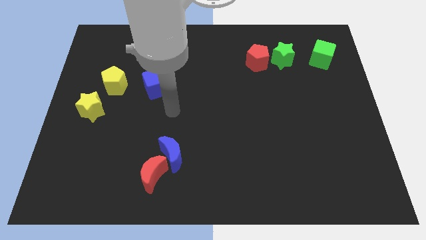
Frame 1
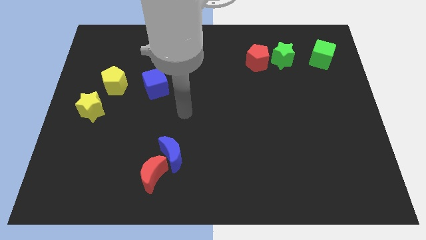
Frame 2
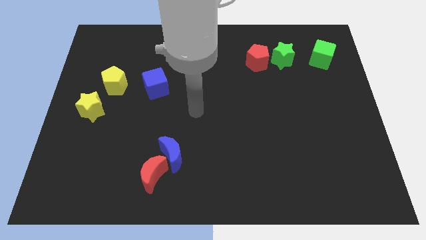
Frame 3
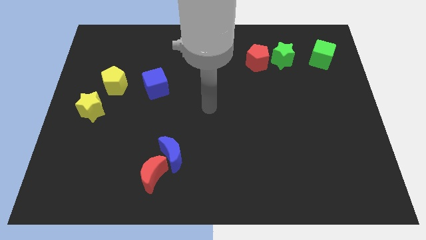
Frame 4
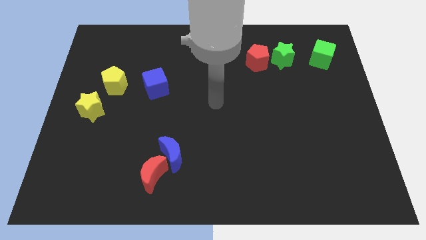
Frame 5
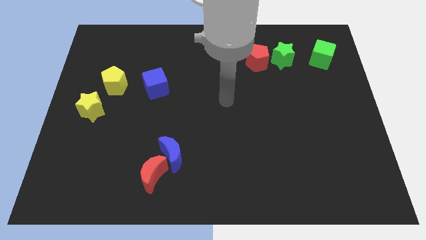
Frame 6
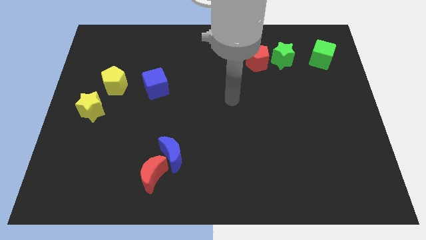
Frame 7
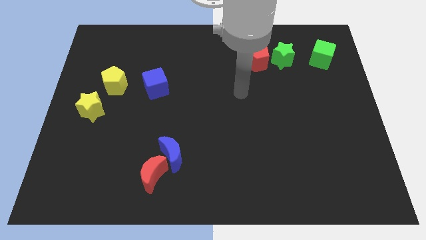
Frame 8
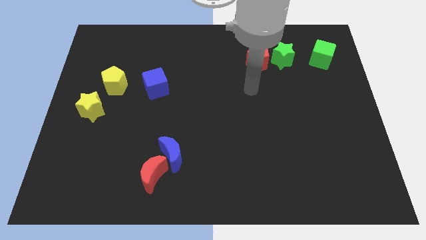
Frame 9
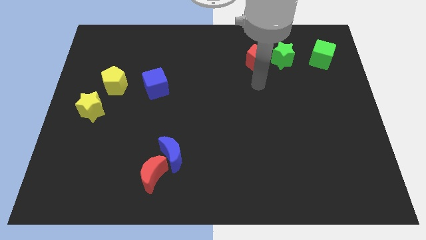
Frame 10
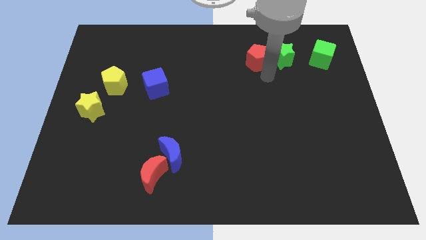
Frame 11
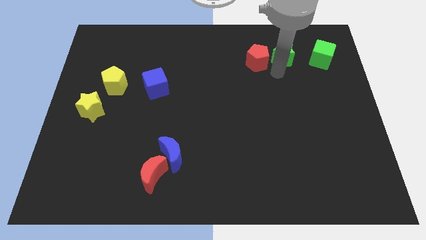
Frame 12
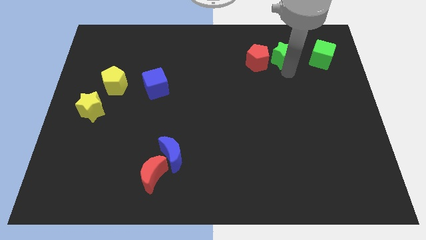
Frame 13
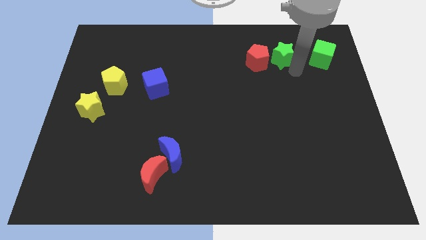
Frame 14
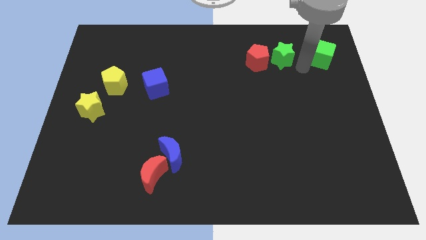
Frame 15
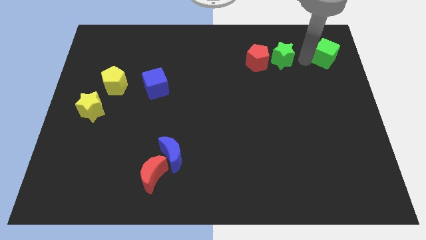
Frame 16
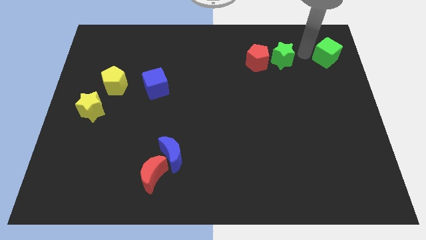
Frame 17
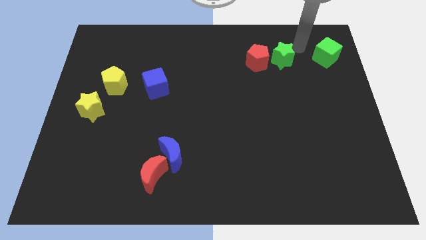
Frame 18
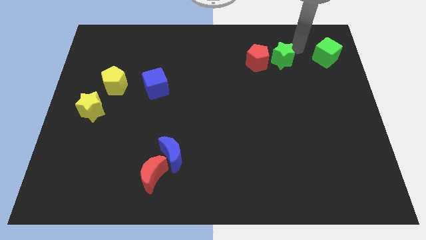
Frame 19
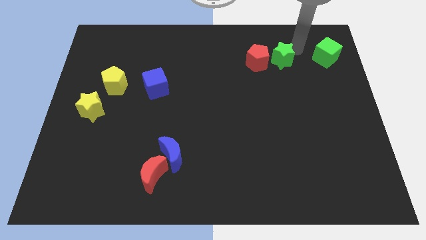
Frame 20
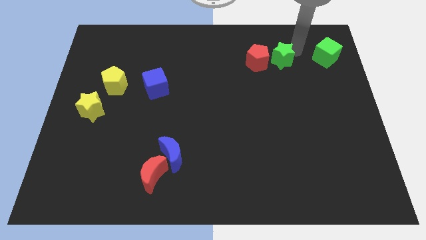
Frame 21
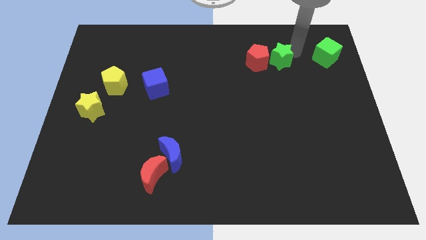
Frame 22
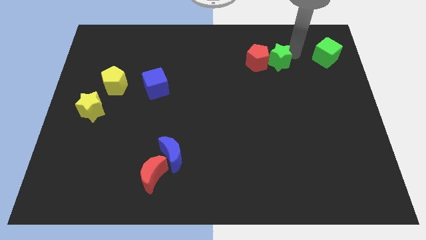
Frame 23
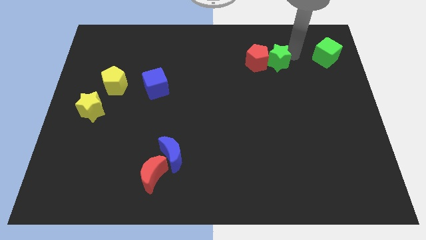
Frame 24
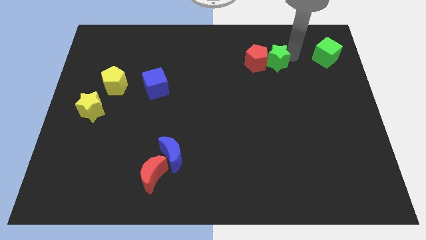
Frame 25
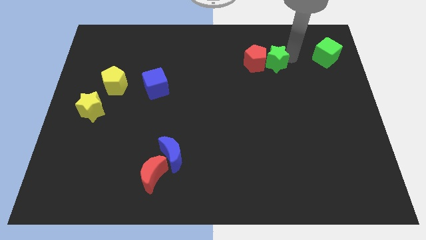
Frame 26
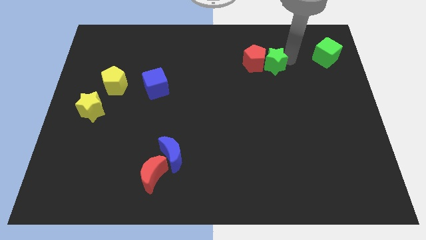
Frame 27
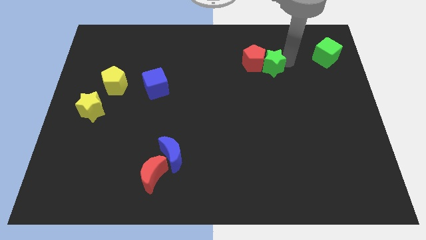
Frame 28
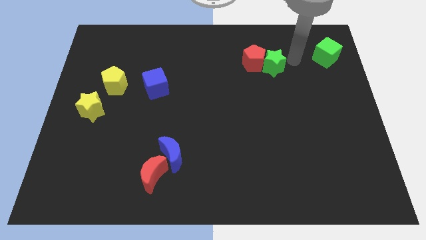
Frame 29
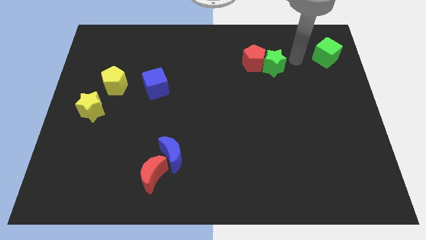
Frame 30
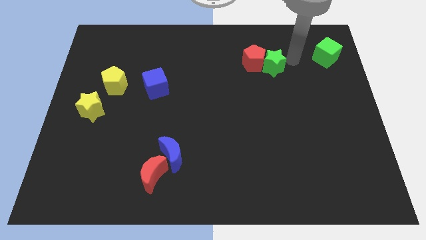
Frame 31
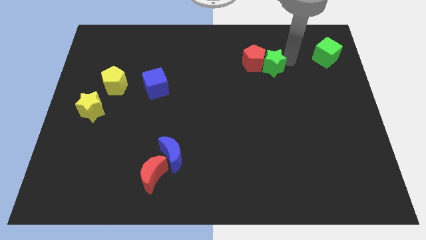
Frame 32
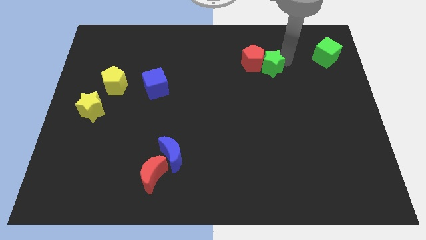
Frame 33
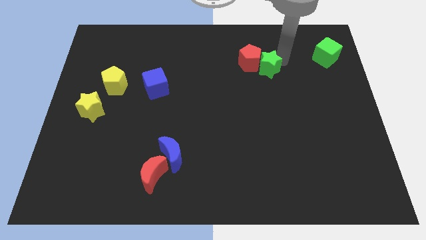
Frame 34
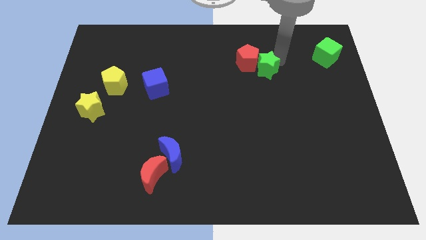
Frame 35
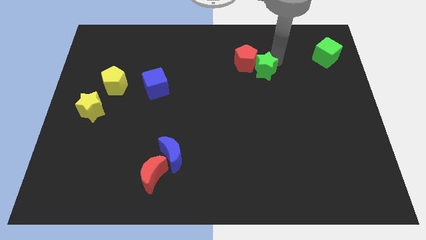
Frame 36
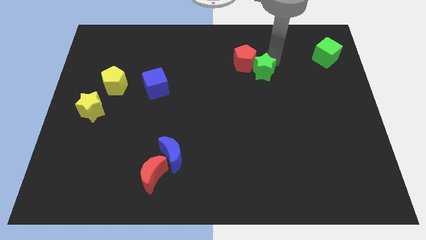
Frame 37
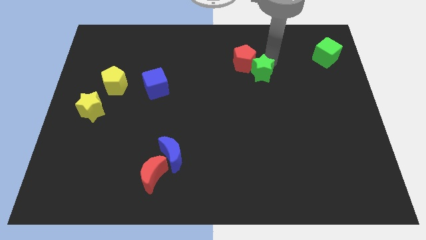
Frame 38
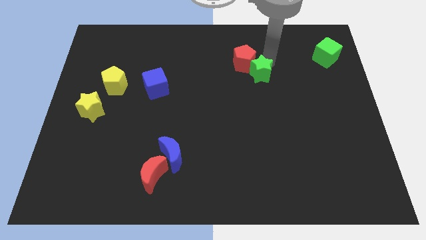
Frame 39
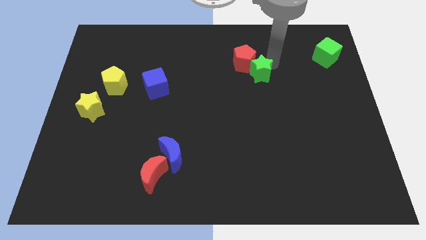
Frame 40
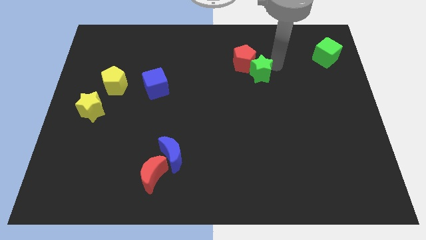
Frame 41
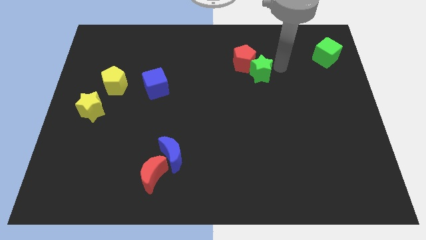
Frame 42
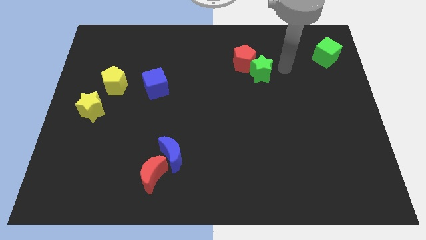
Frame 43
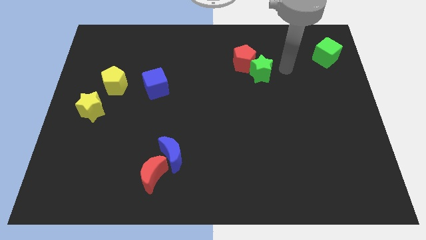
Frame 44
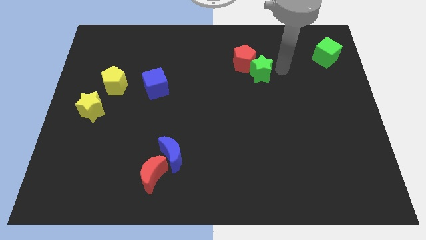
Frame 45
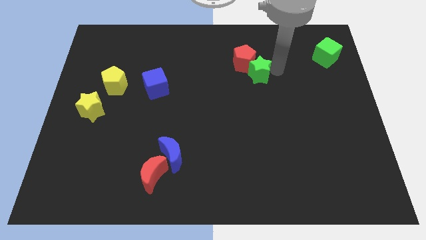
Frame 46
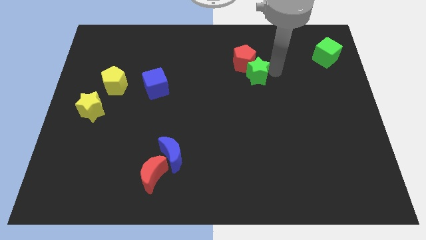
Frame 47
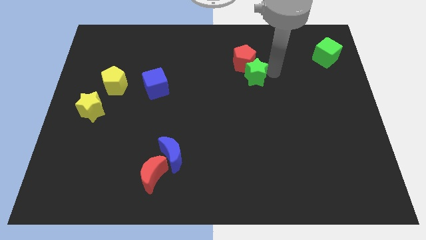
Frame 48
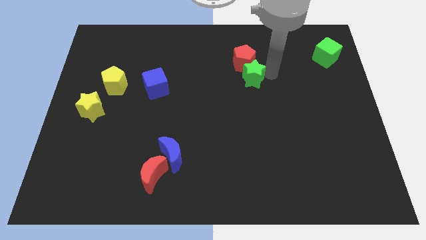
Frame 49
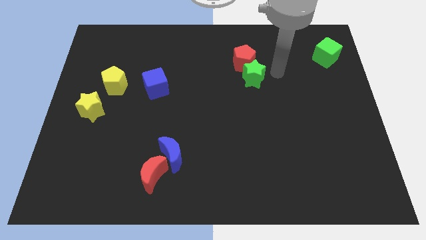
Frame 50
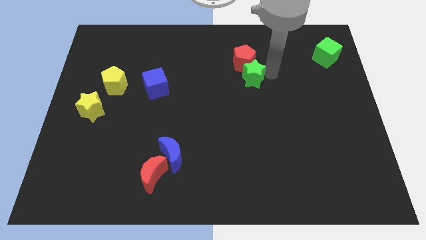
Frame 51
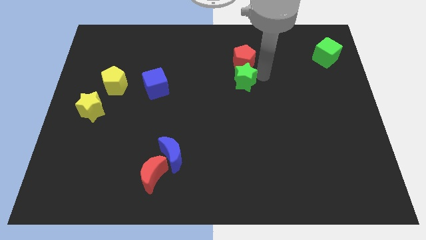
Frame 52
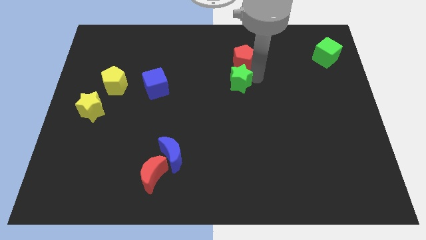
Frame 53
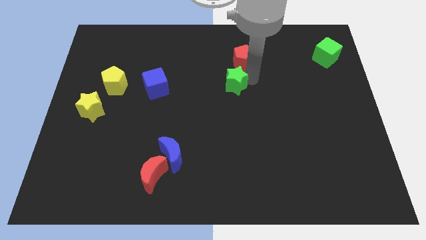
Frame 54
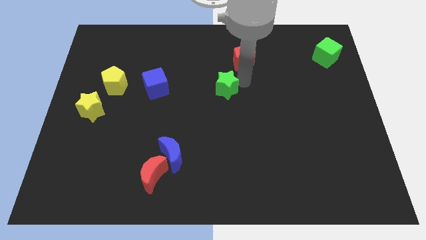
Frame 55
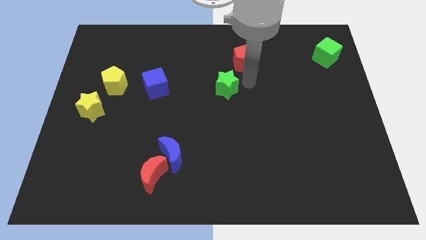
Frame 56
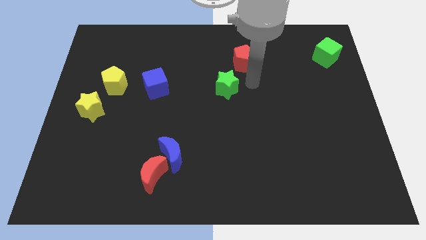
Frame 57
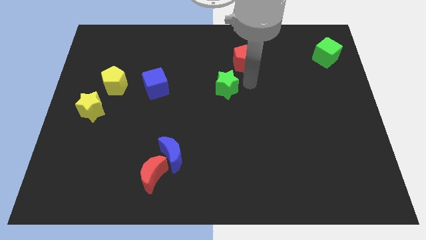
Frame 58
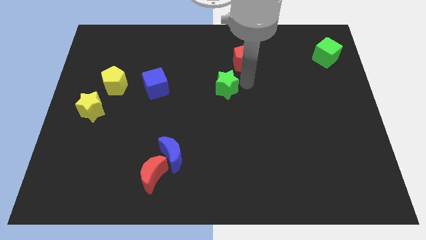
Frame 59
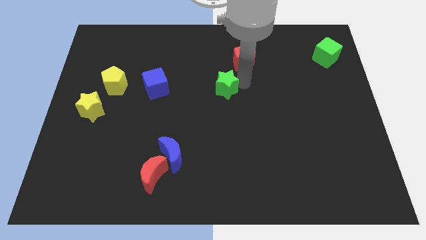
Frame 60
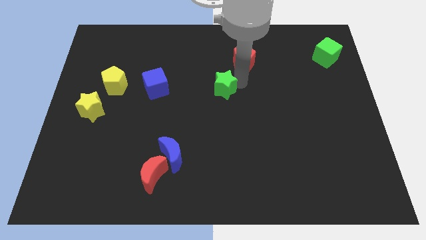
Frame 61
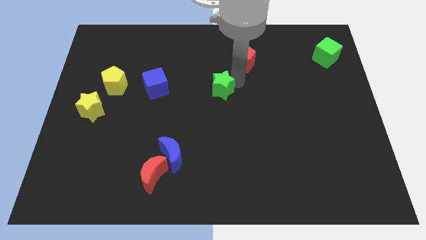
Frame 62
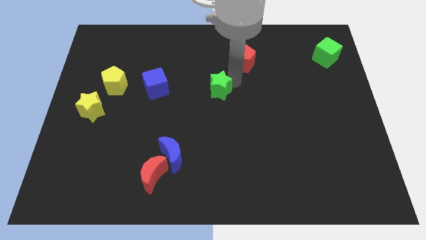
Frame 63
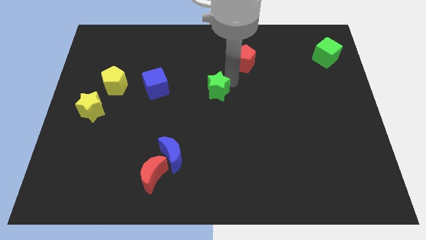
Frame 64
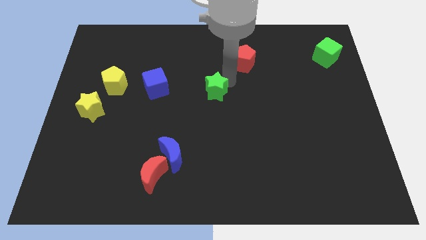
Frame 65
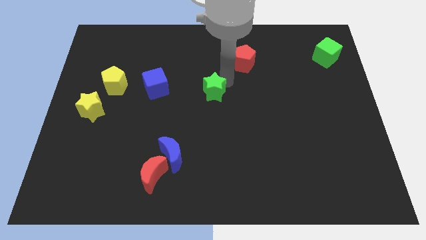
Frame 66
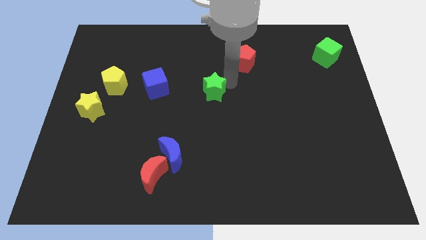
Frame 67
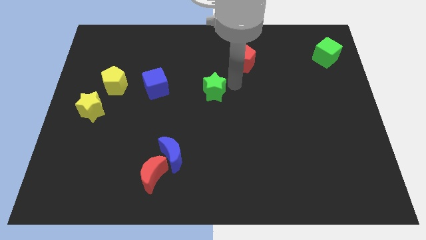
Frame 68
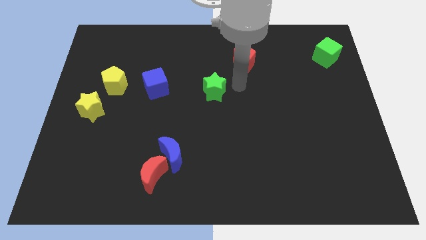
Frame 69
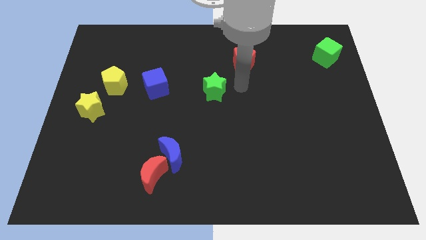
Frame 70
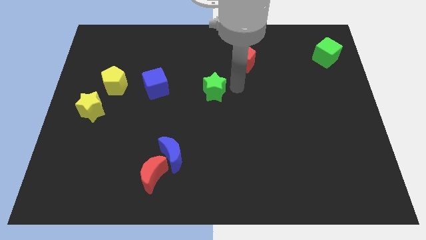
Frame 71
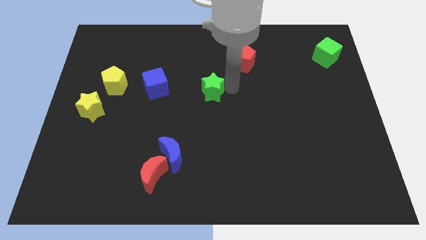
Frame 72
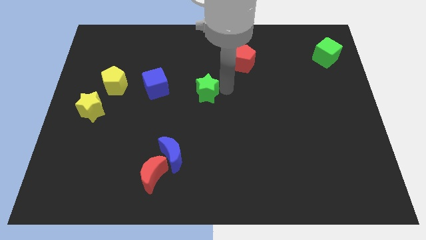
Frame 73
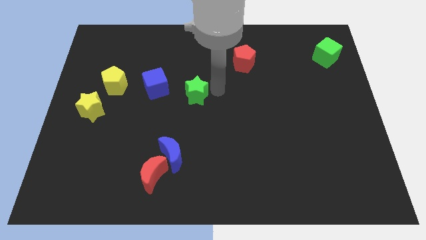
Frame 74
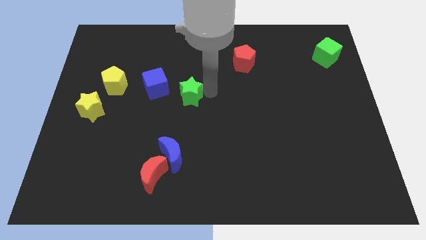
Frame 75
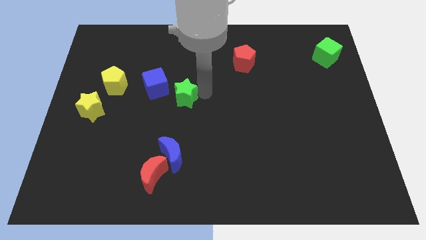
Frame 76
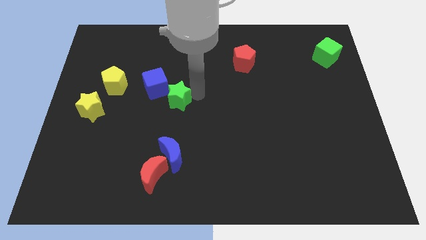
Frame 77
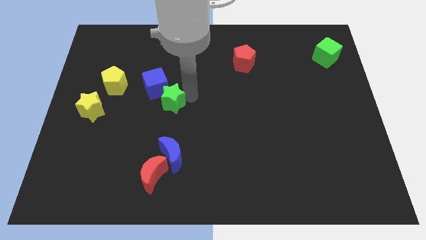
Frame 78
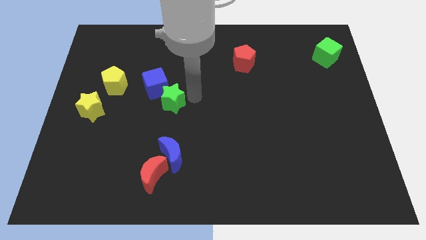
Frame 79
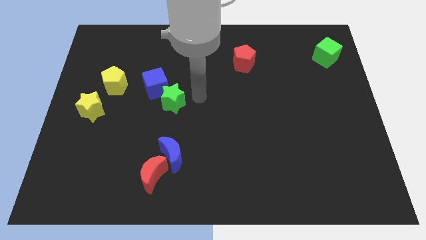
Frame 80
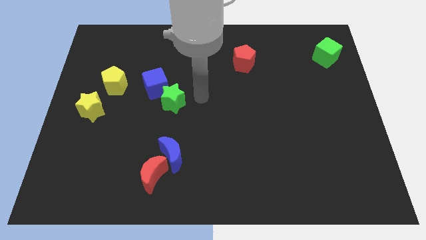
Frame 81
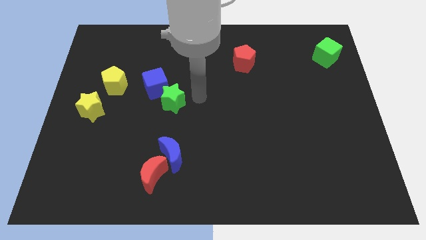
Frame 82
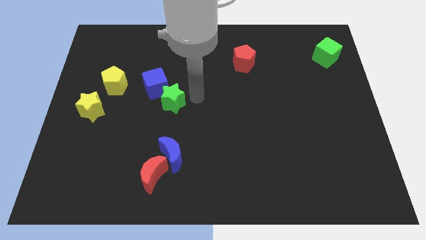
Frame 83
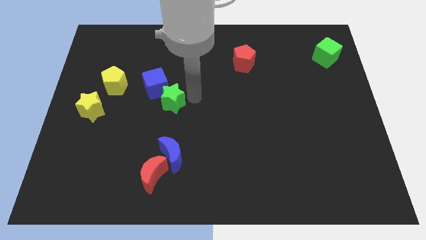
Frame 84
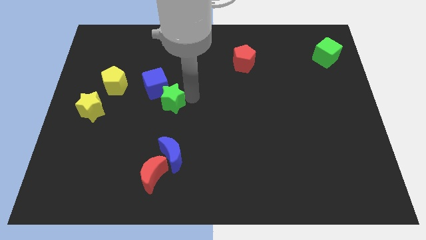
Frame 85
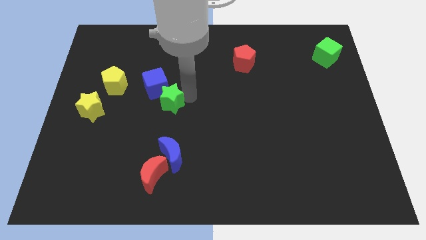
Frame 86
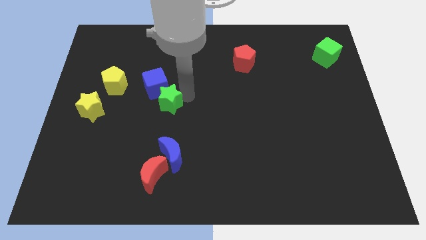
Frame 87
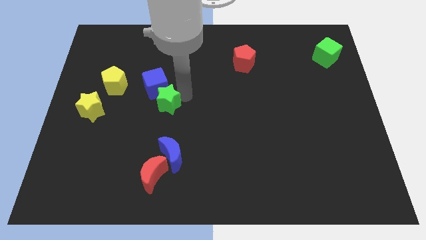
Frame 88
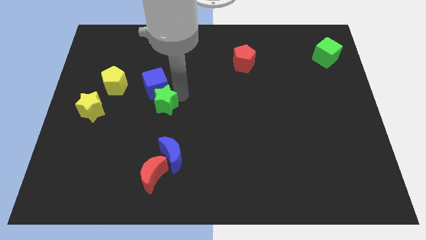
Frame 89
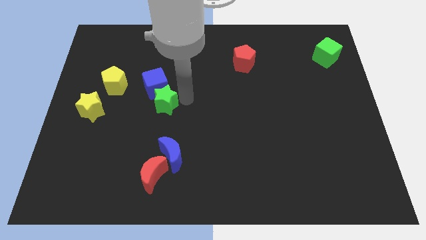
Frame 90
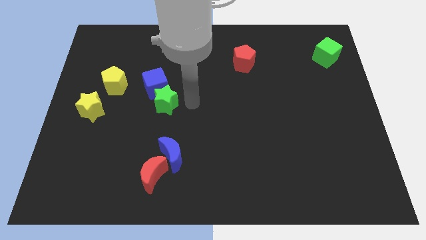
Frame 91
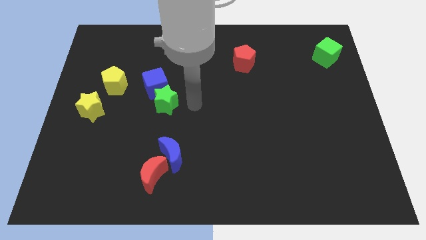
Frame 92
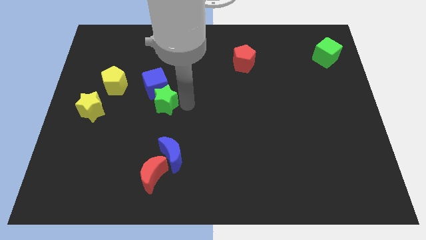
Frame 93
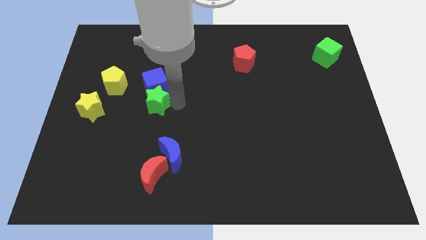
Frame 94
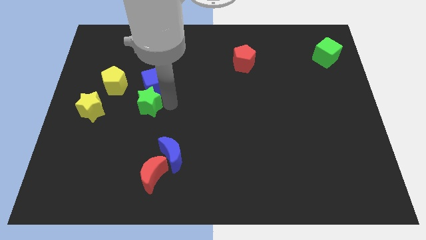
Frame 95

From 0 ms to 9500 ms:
move the green star to the bottom right side of the yellow pentagon
